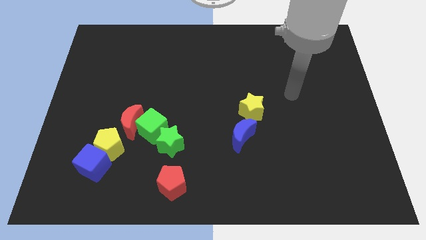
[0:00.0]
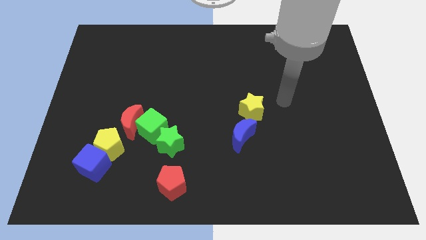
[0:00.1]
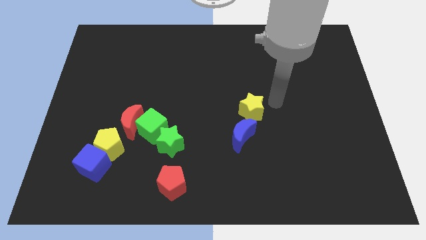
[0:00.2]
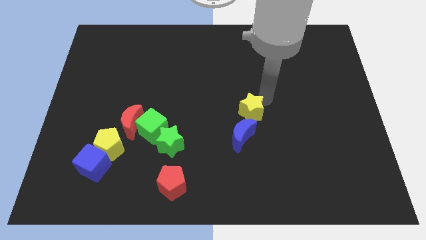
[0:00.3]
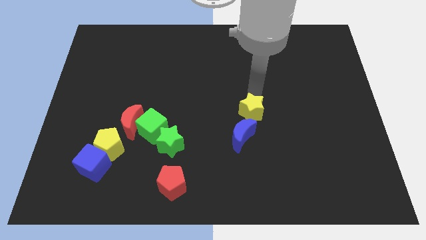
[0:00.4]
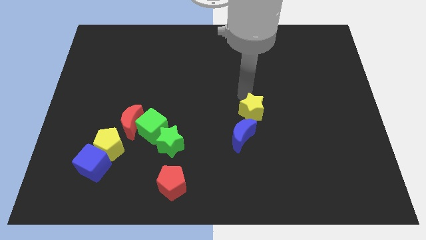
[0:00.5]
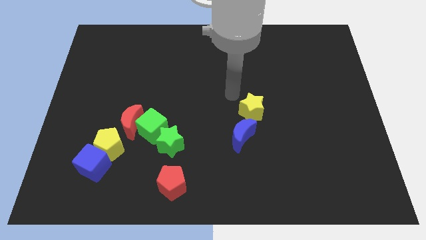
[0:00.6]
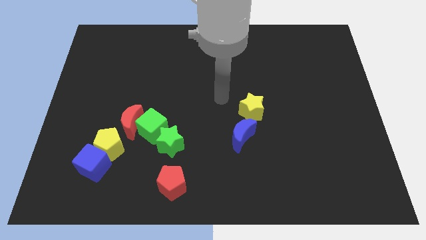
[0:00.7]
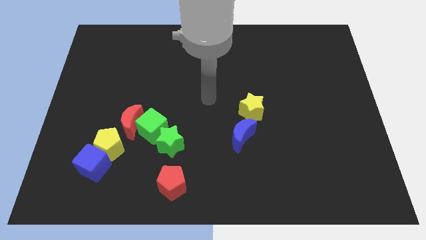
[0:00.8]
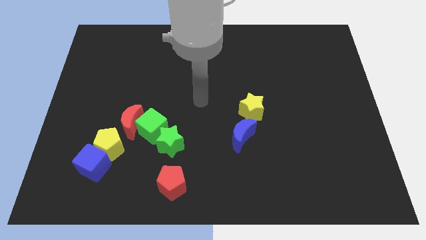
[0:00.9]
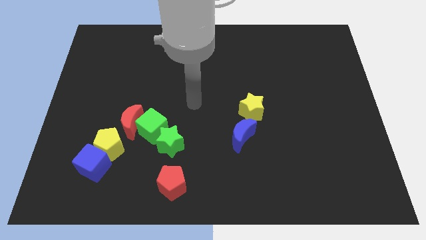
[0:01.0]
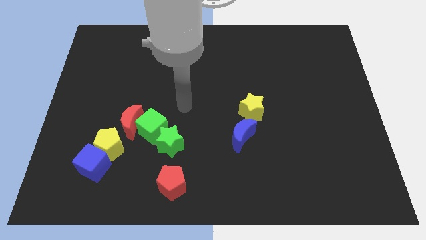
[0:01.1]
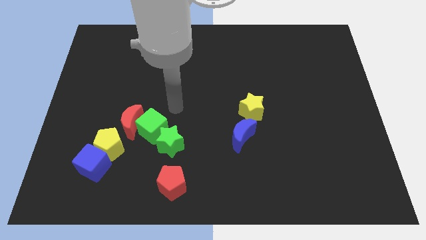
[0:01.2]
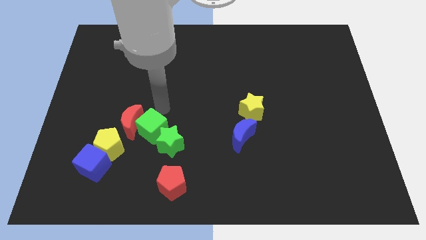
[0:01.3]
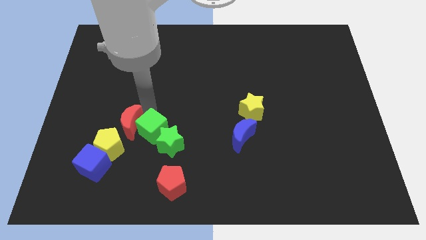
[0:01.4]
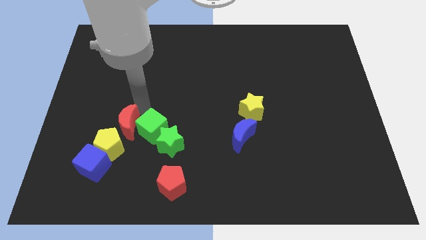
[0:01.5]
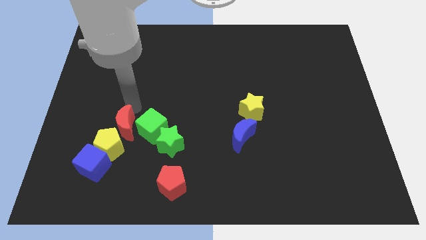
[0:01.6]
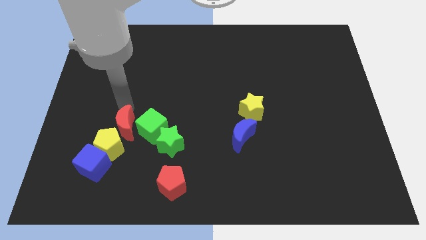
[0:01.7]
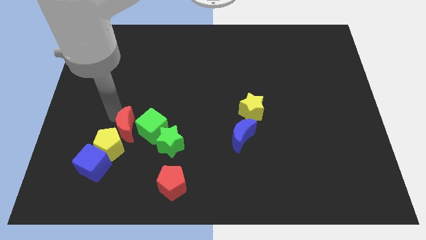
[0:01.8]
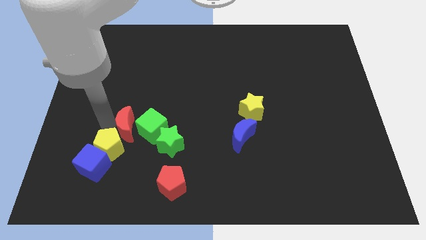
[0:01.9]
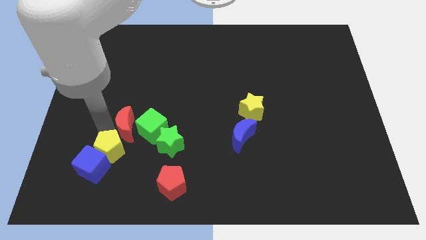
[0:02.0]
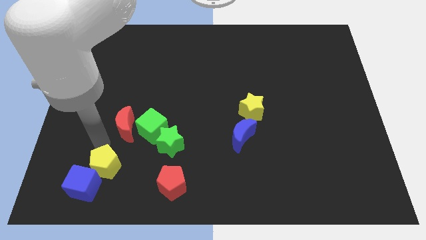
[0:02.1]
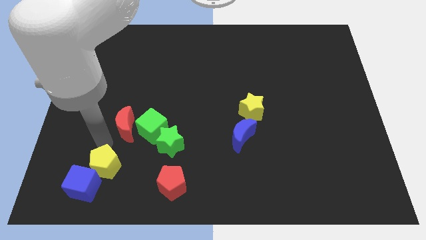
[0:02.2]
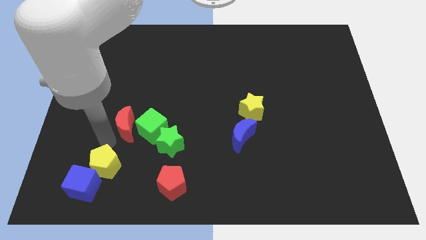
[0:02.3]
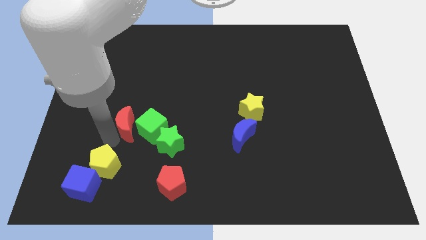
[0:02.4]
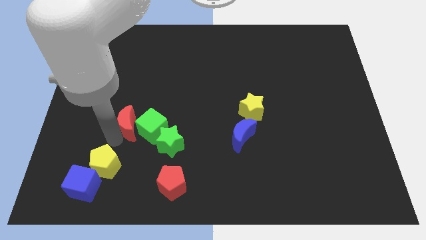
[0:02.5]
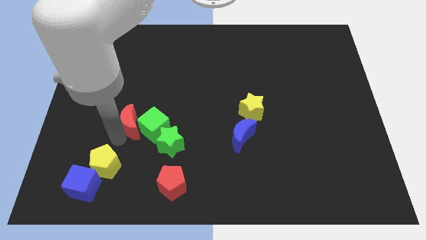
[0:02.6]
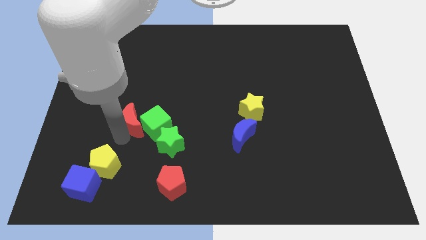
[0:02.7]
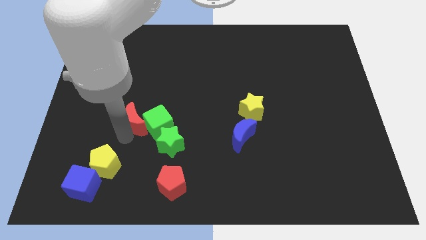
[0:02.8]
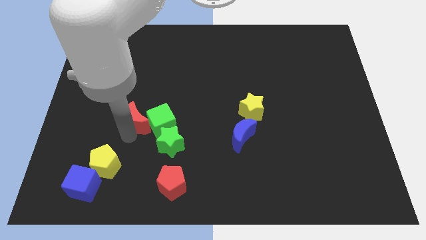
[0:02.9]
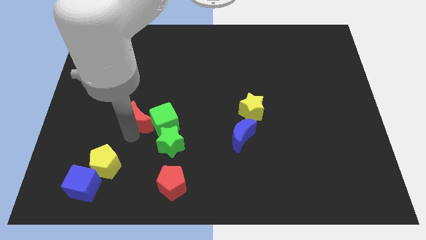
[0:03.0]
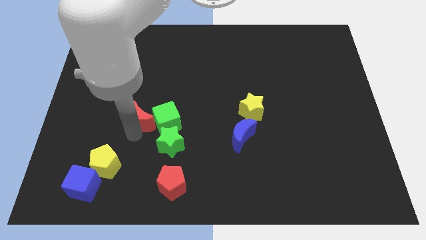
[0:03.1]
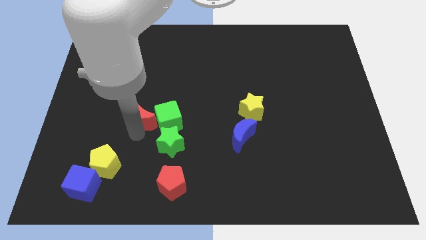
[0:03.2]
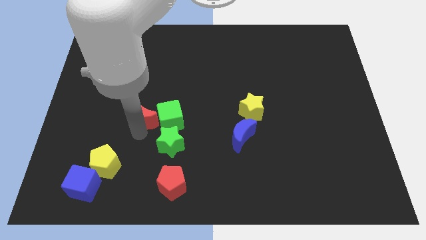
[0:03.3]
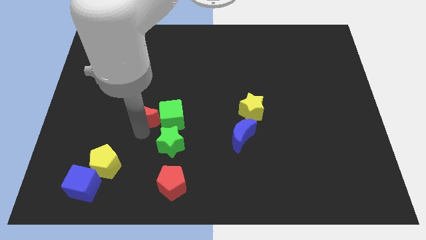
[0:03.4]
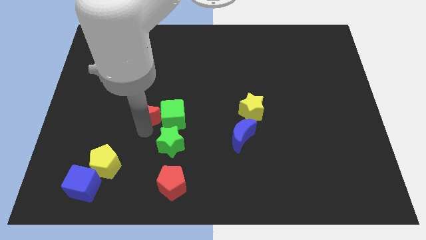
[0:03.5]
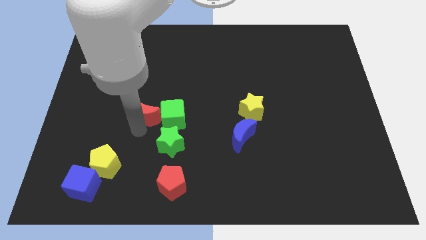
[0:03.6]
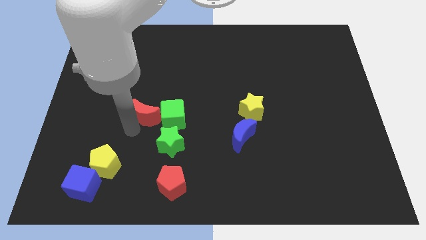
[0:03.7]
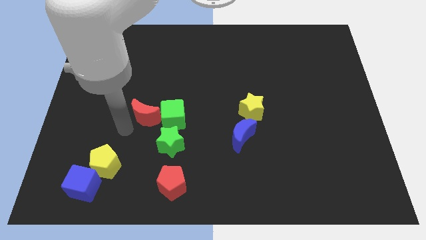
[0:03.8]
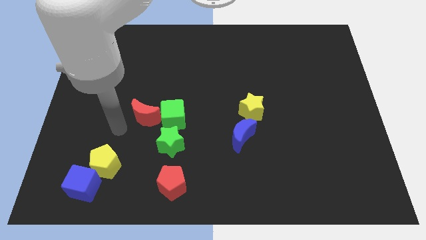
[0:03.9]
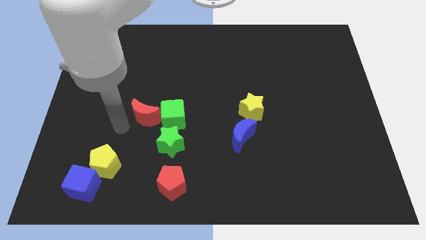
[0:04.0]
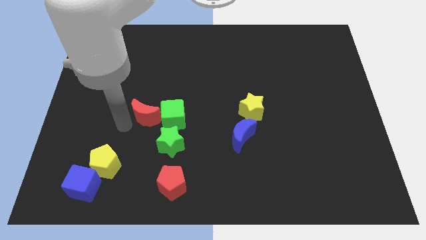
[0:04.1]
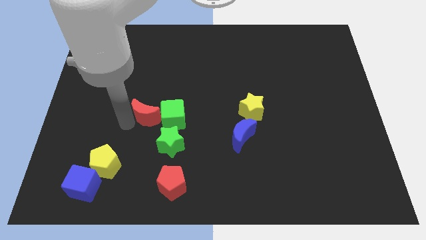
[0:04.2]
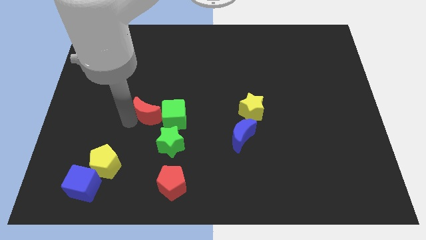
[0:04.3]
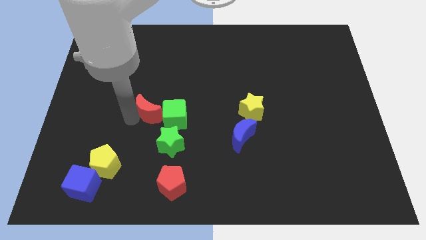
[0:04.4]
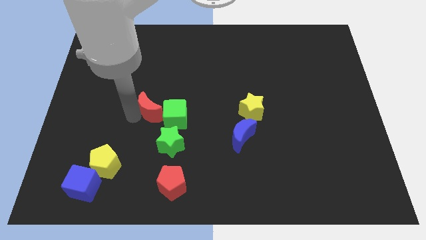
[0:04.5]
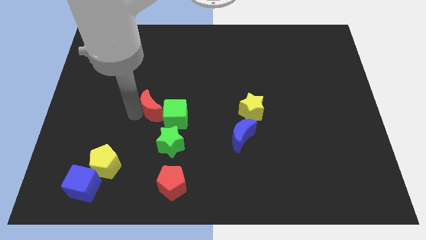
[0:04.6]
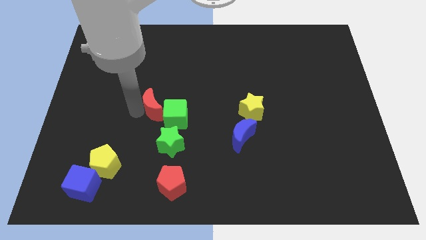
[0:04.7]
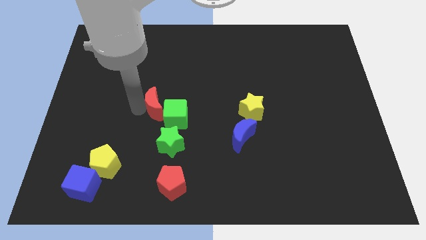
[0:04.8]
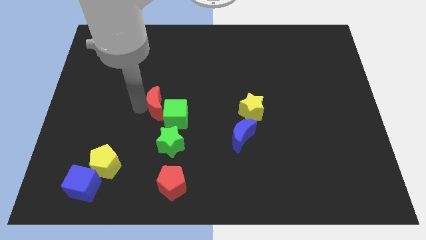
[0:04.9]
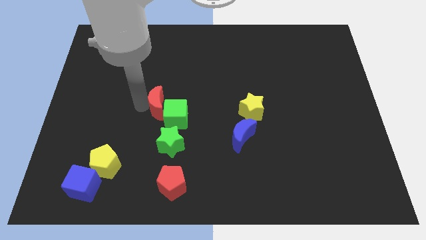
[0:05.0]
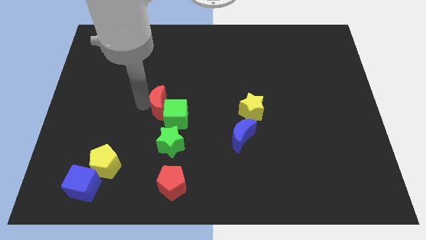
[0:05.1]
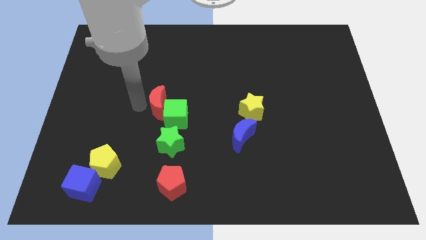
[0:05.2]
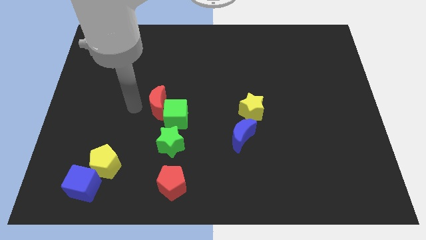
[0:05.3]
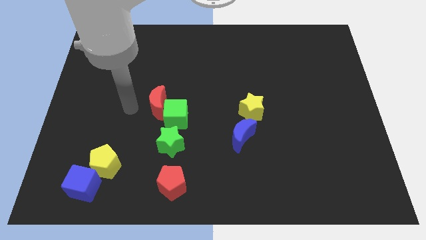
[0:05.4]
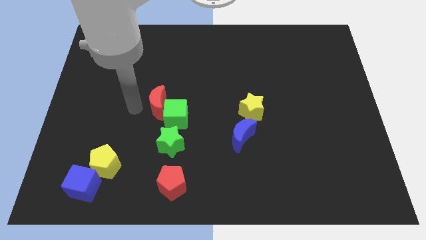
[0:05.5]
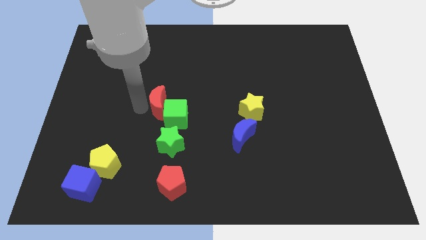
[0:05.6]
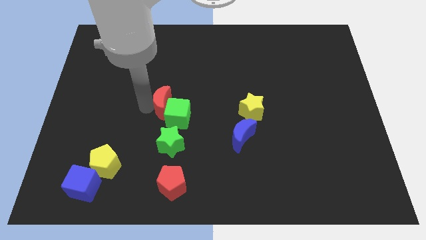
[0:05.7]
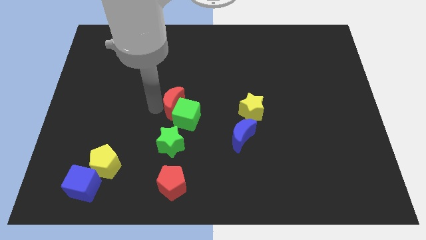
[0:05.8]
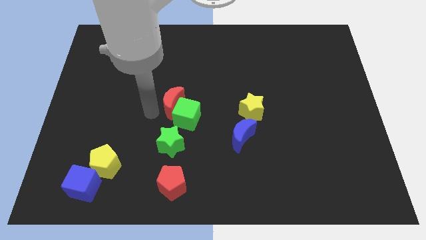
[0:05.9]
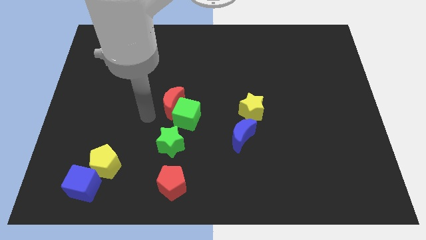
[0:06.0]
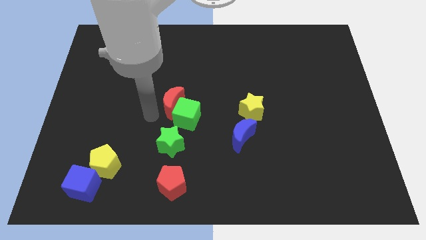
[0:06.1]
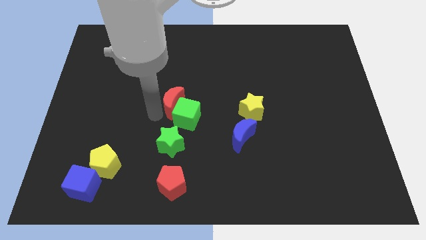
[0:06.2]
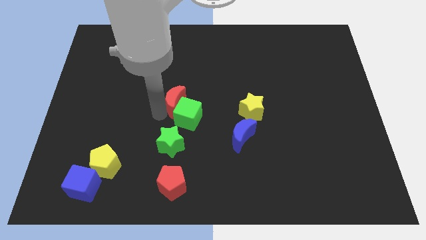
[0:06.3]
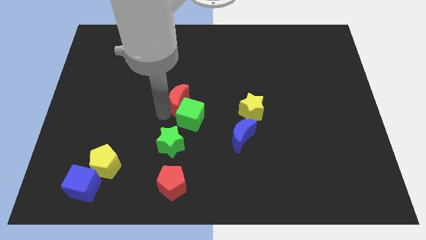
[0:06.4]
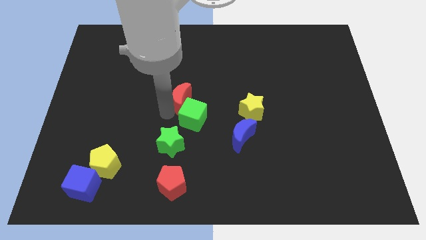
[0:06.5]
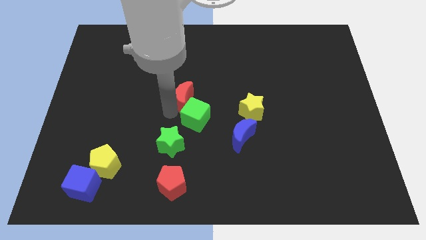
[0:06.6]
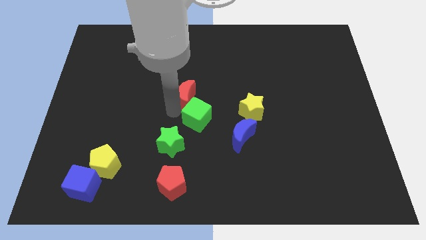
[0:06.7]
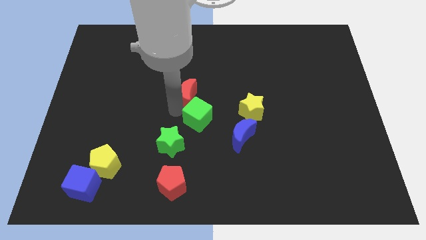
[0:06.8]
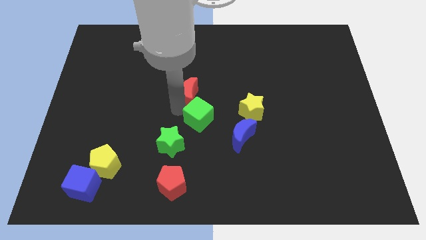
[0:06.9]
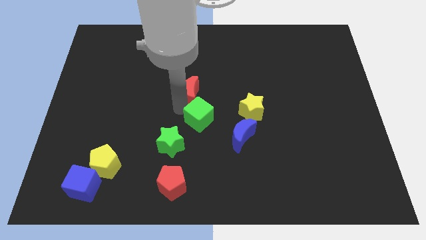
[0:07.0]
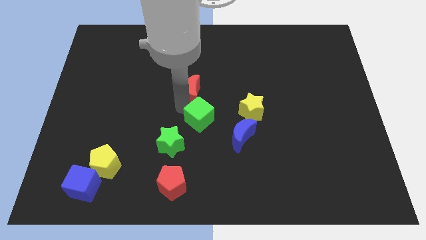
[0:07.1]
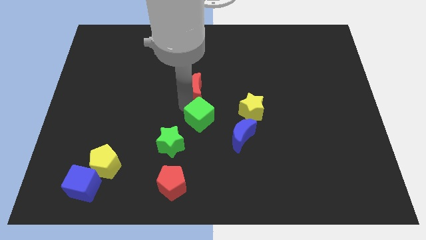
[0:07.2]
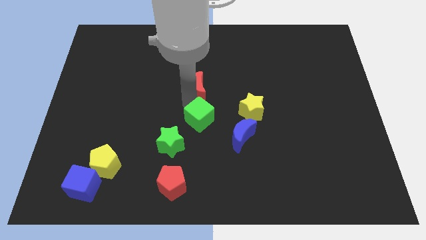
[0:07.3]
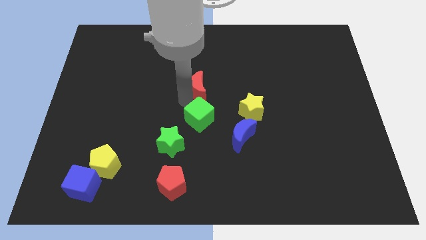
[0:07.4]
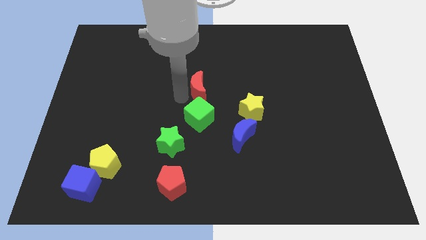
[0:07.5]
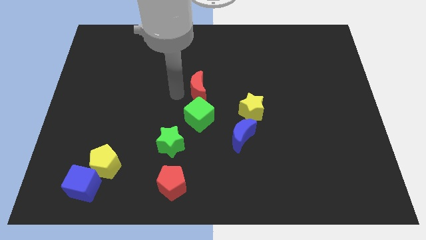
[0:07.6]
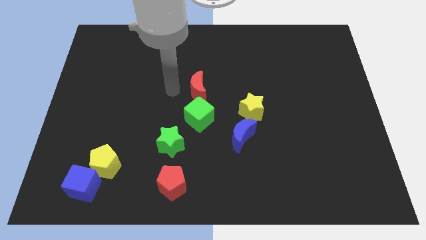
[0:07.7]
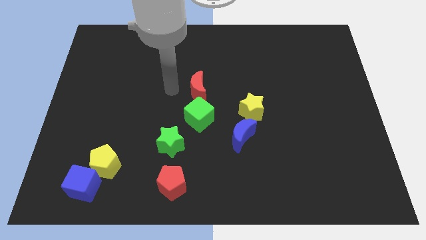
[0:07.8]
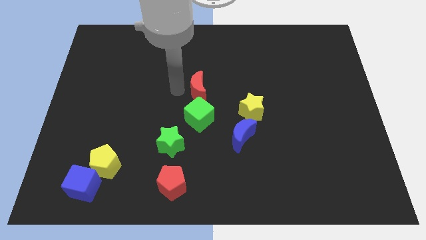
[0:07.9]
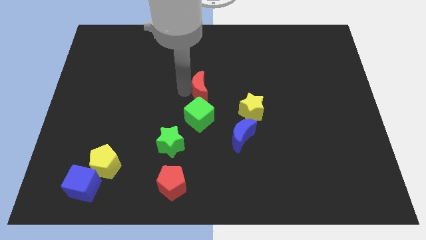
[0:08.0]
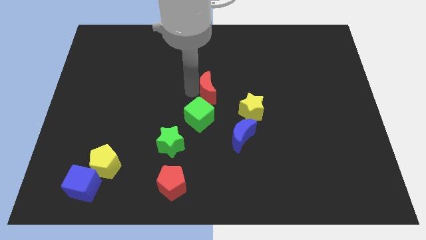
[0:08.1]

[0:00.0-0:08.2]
push the red moon to the top left side of the yellow star

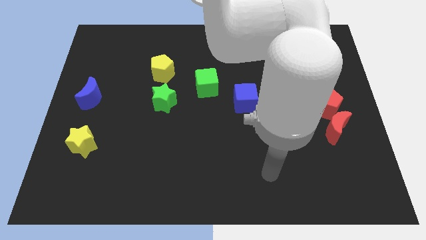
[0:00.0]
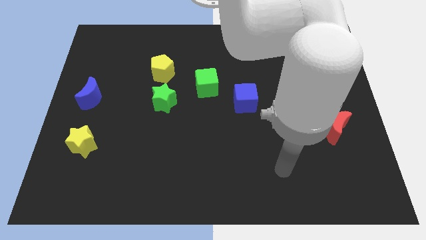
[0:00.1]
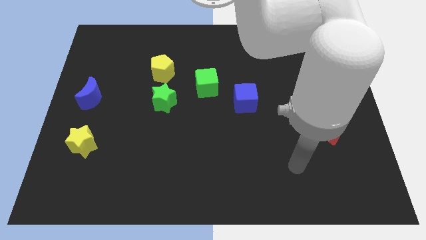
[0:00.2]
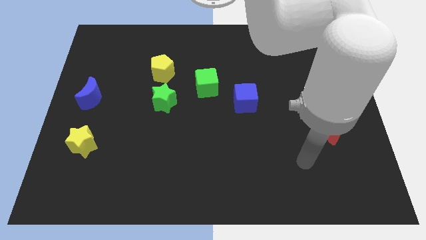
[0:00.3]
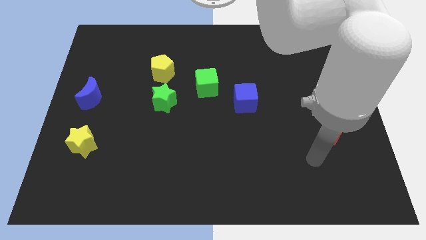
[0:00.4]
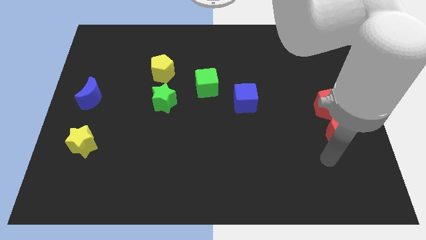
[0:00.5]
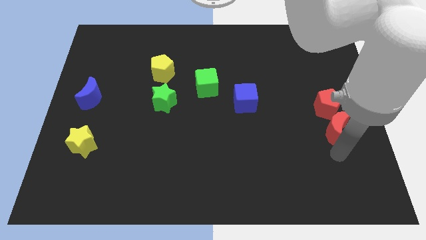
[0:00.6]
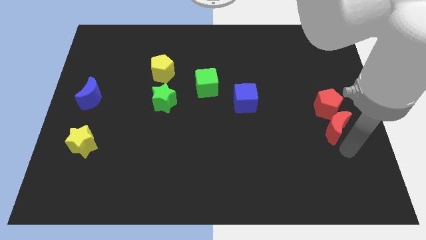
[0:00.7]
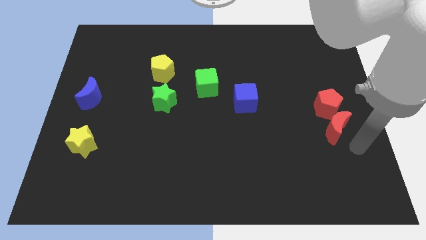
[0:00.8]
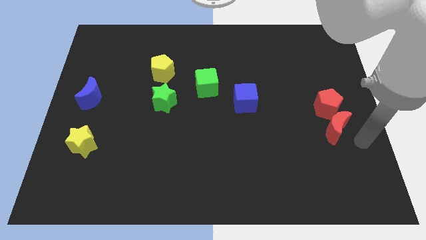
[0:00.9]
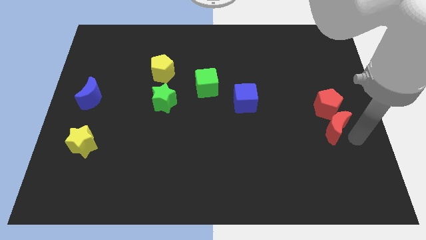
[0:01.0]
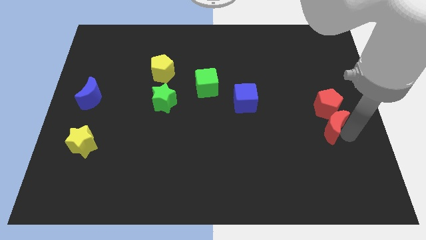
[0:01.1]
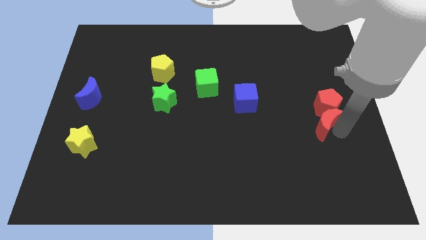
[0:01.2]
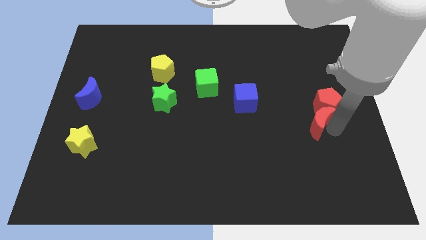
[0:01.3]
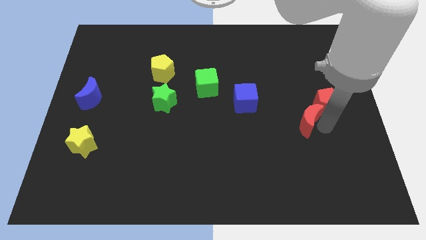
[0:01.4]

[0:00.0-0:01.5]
move the red moon to the left side of the red pentagon
